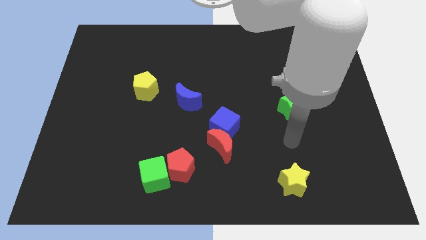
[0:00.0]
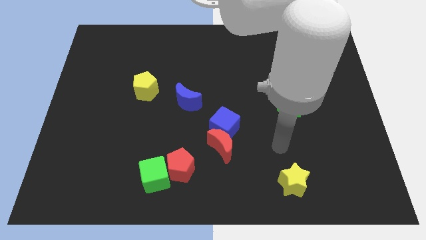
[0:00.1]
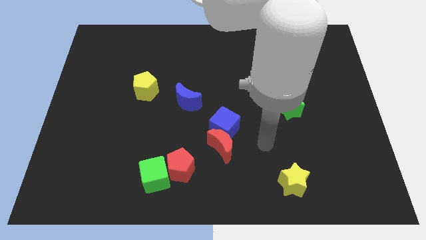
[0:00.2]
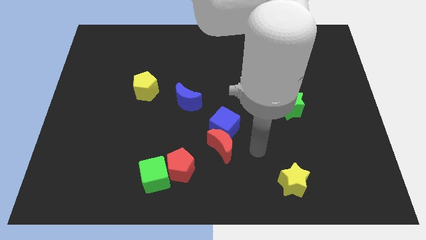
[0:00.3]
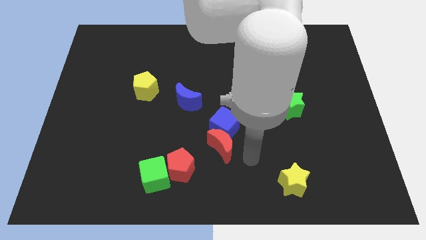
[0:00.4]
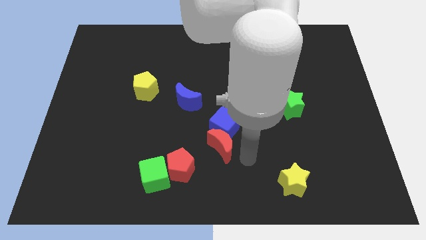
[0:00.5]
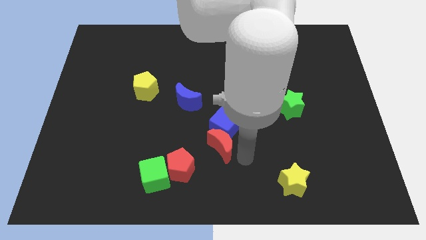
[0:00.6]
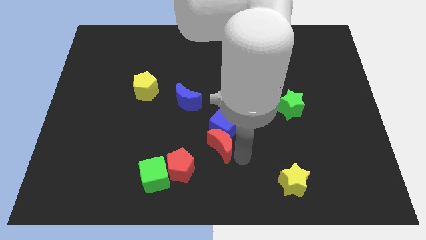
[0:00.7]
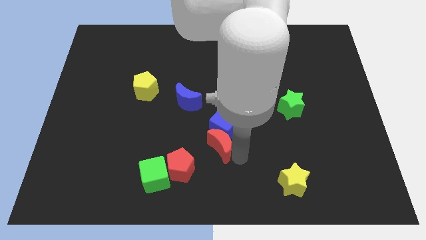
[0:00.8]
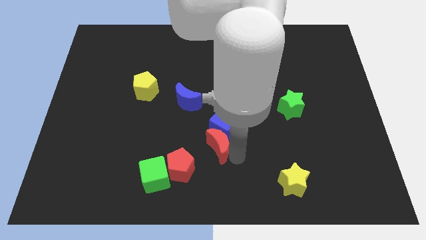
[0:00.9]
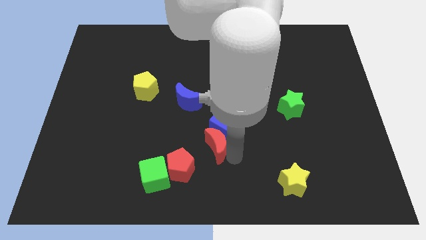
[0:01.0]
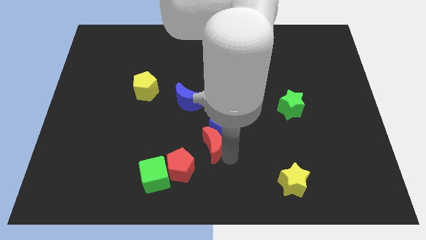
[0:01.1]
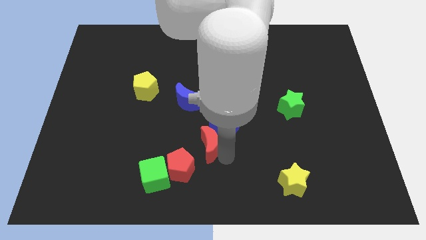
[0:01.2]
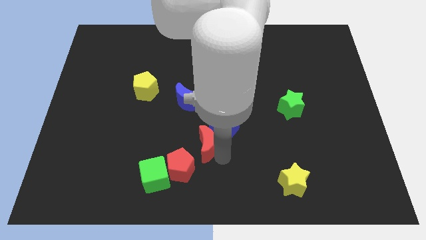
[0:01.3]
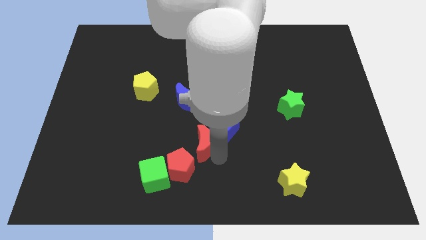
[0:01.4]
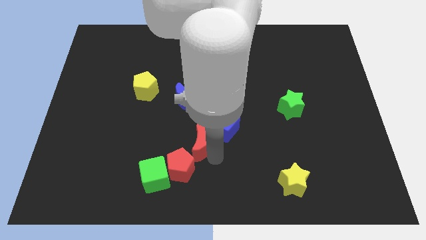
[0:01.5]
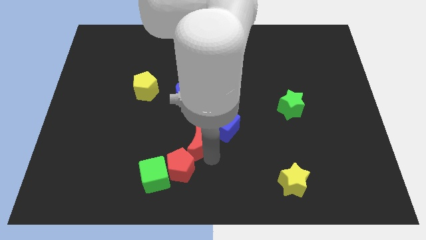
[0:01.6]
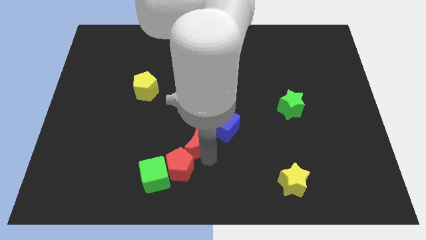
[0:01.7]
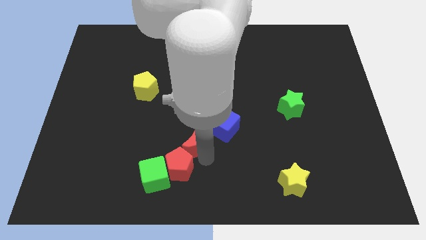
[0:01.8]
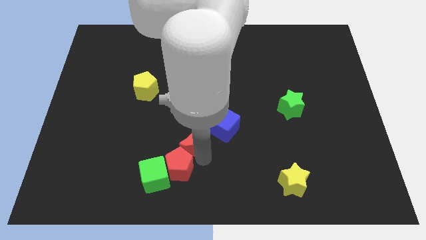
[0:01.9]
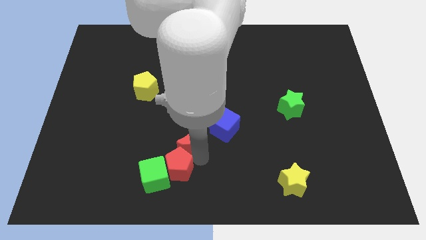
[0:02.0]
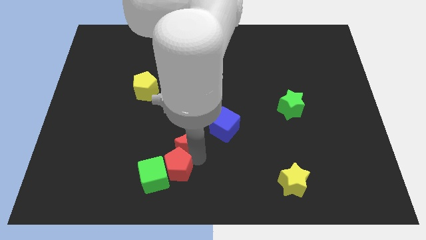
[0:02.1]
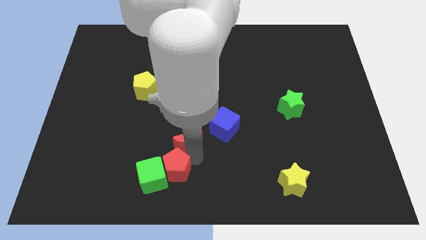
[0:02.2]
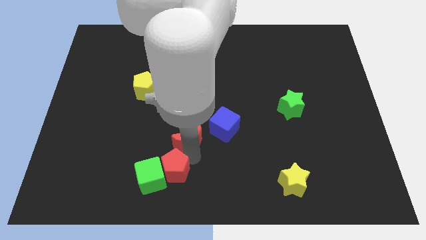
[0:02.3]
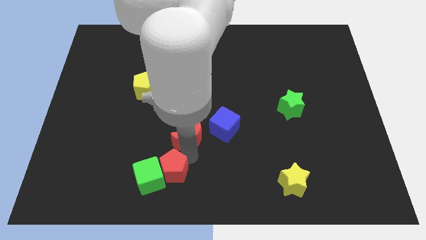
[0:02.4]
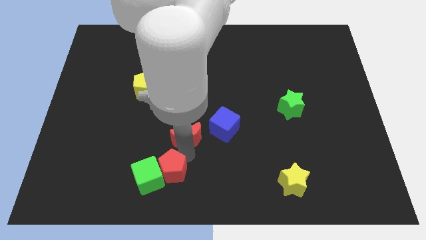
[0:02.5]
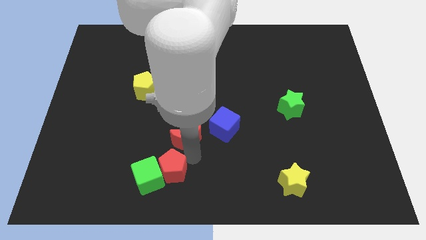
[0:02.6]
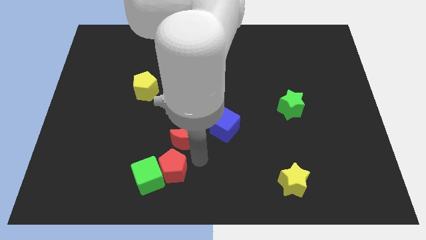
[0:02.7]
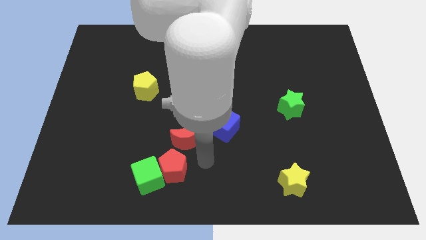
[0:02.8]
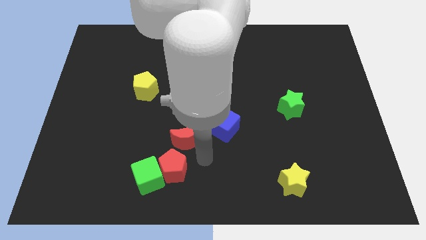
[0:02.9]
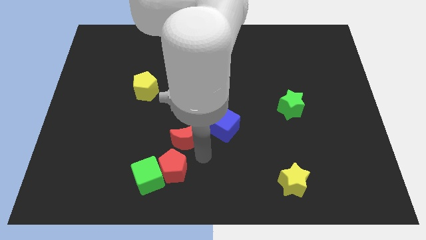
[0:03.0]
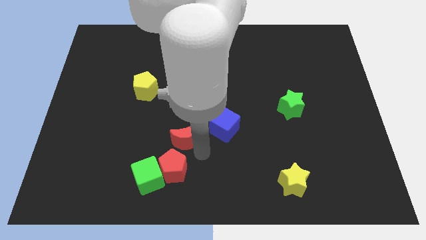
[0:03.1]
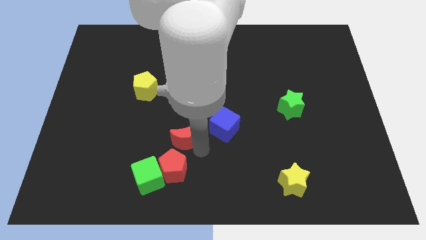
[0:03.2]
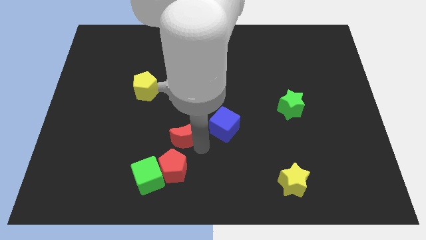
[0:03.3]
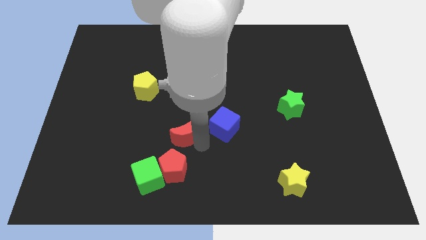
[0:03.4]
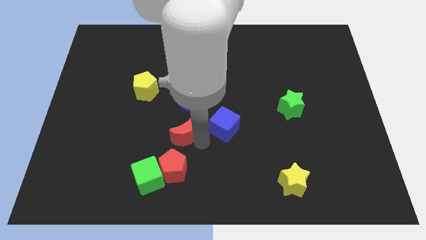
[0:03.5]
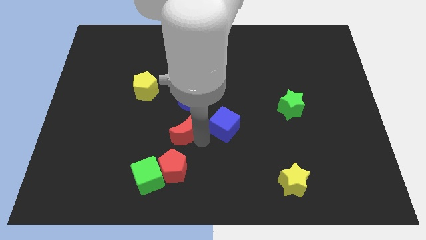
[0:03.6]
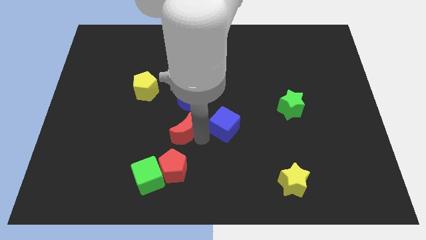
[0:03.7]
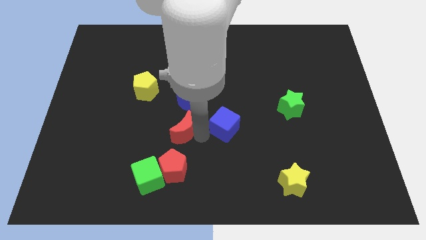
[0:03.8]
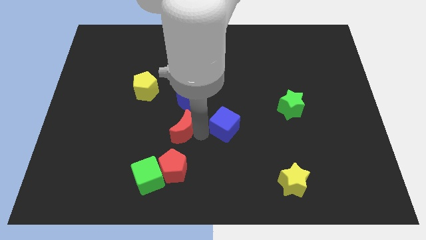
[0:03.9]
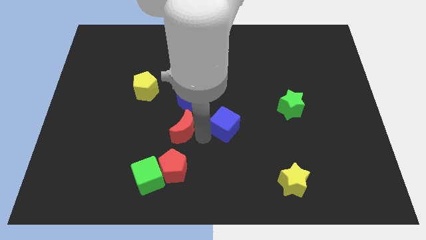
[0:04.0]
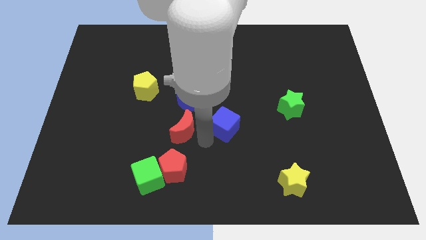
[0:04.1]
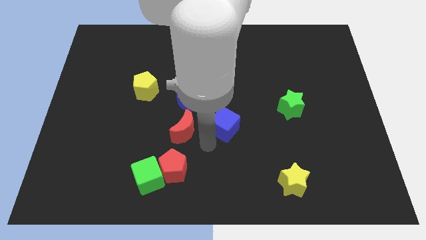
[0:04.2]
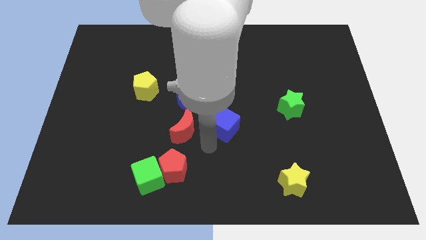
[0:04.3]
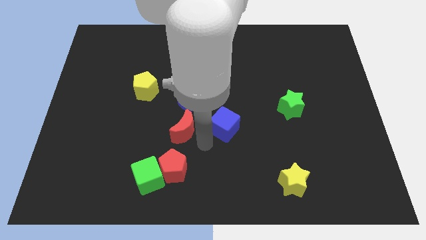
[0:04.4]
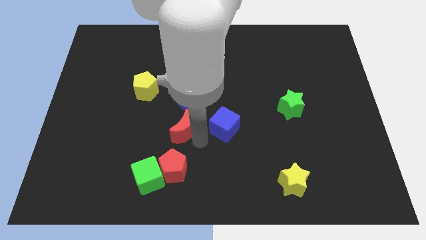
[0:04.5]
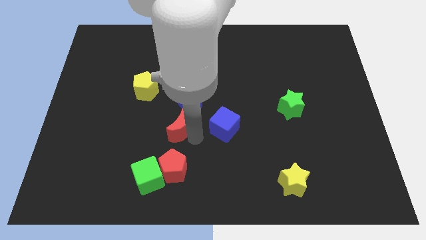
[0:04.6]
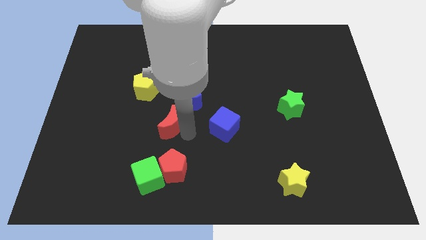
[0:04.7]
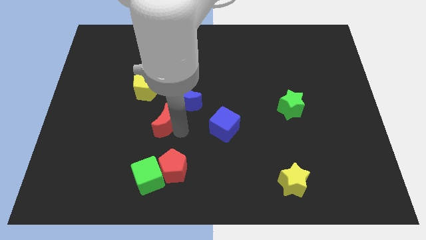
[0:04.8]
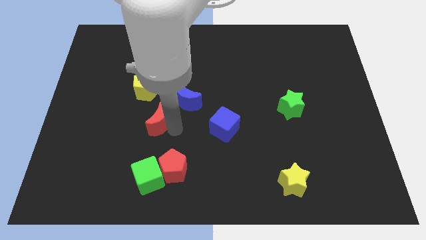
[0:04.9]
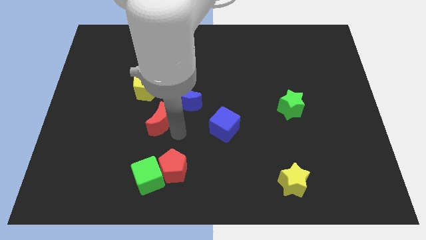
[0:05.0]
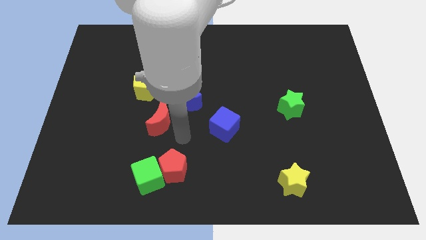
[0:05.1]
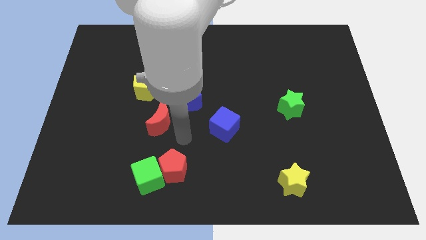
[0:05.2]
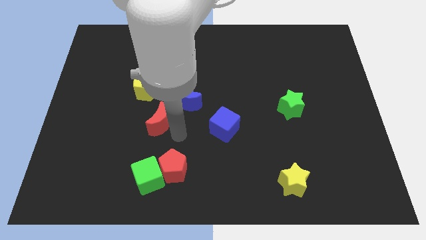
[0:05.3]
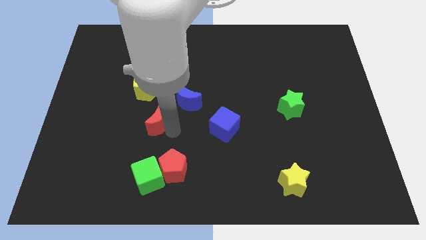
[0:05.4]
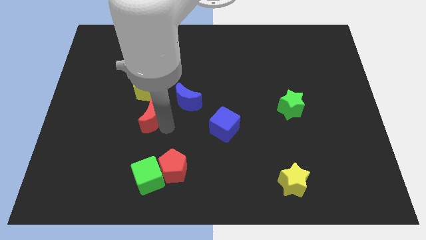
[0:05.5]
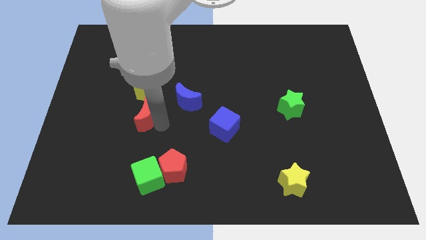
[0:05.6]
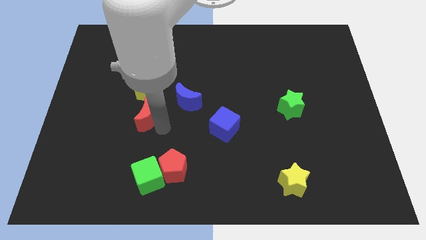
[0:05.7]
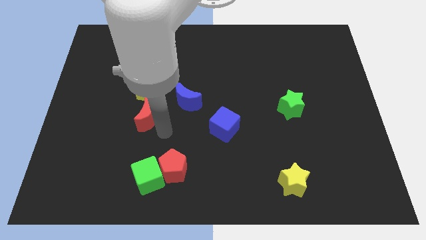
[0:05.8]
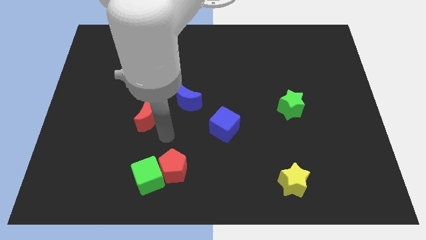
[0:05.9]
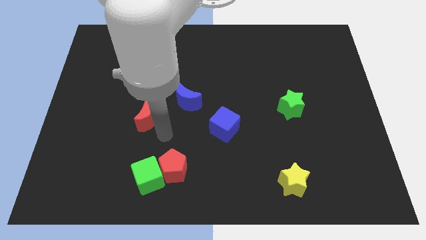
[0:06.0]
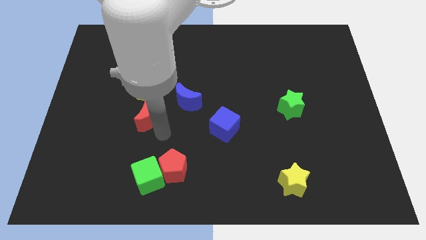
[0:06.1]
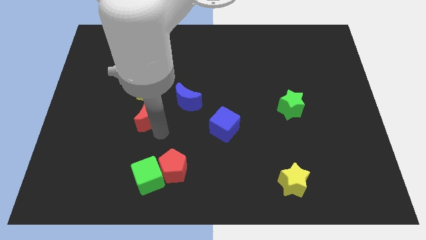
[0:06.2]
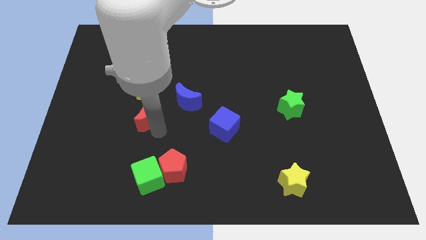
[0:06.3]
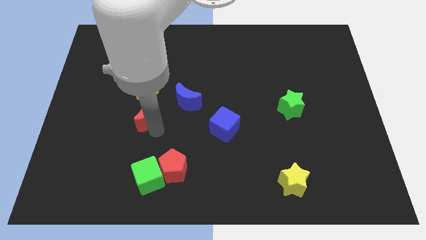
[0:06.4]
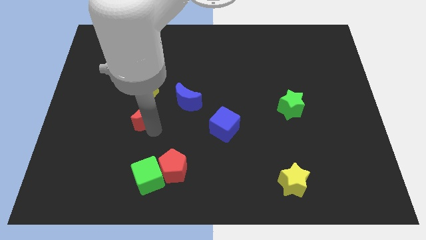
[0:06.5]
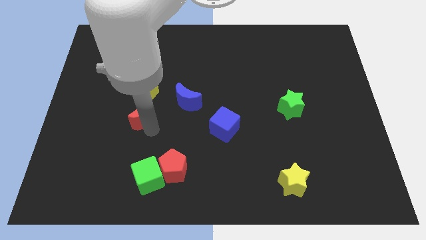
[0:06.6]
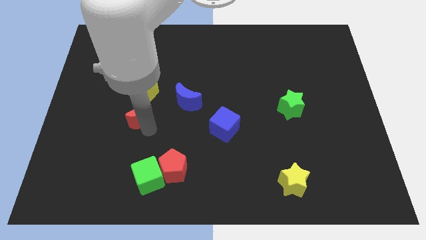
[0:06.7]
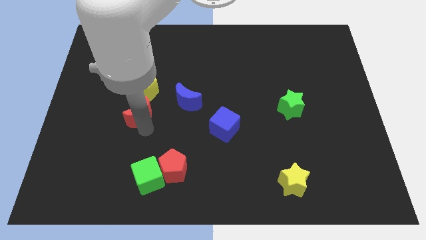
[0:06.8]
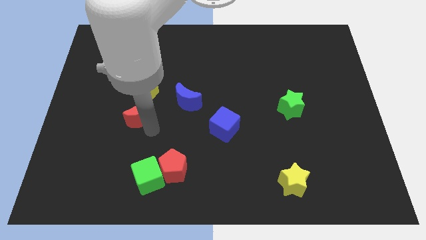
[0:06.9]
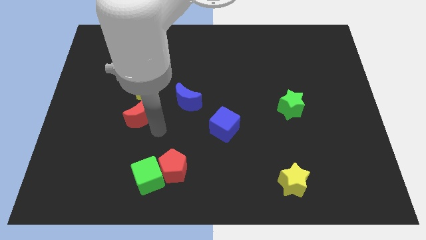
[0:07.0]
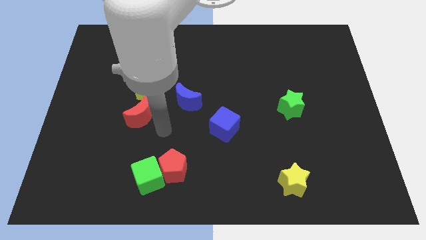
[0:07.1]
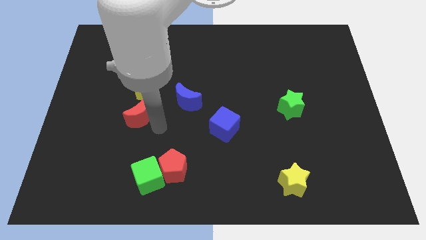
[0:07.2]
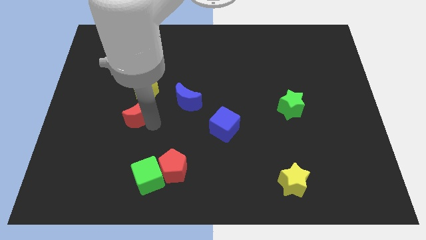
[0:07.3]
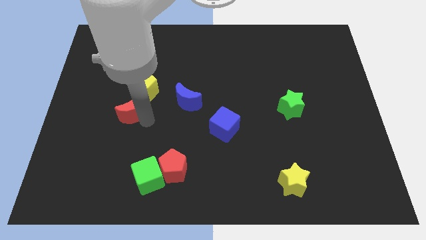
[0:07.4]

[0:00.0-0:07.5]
push the red moon diagonally down and to the left of the yellow pentagon

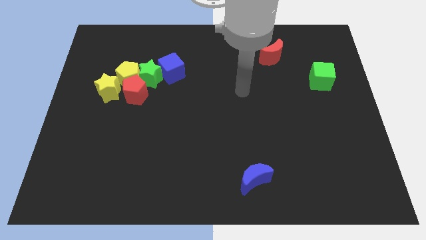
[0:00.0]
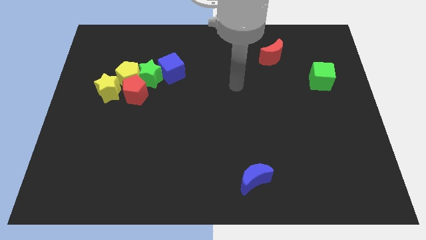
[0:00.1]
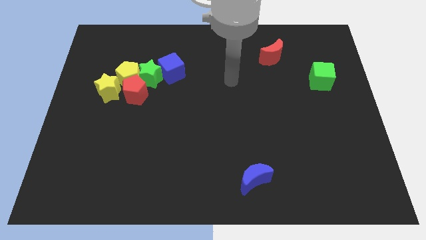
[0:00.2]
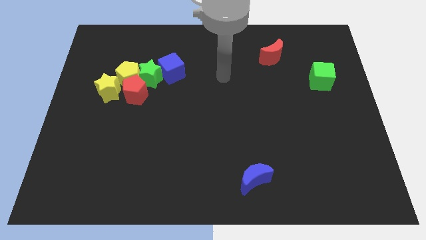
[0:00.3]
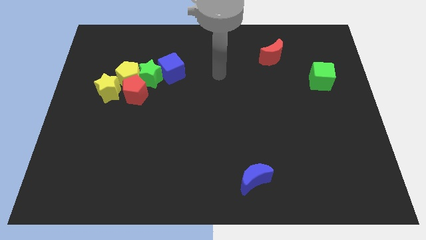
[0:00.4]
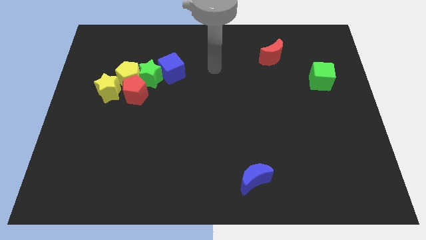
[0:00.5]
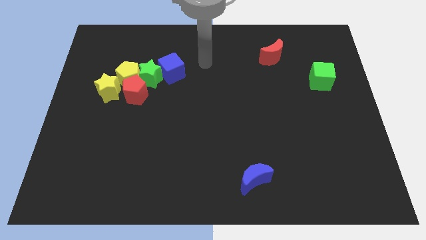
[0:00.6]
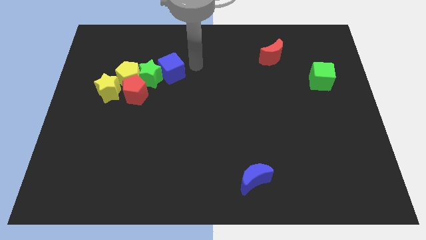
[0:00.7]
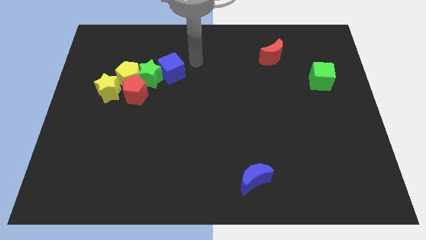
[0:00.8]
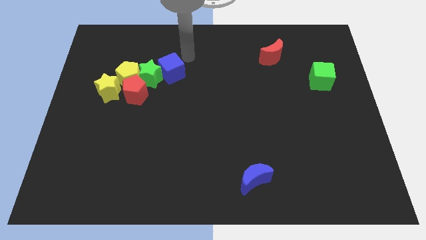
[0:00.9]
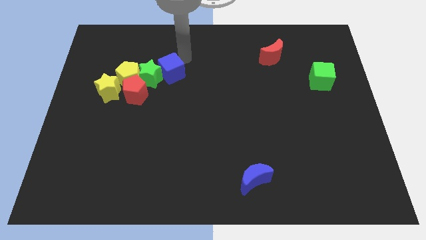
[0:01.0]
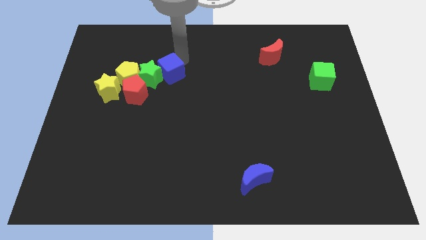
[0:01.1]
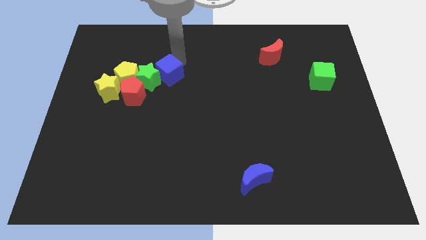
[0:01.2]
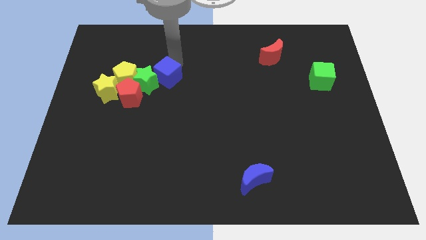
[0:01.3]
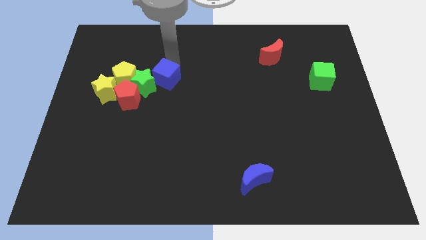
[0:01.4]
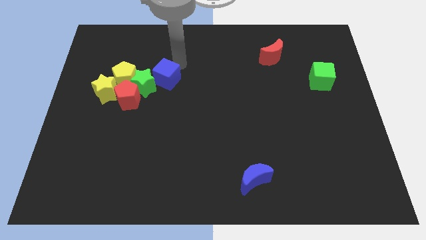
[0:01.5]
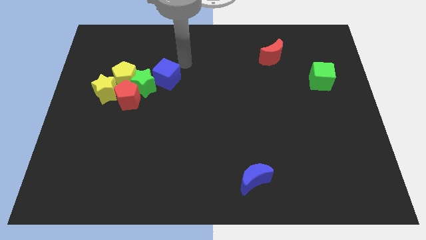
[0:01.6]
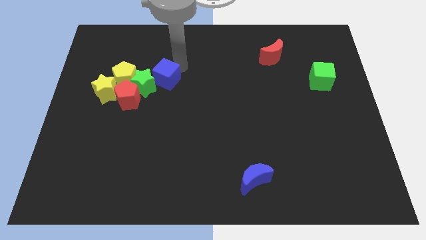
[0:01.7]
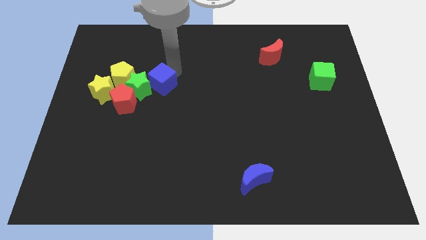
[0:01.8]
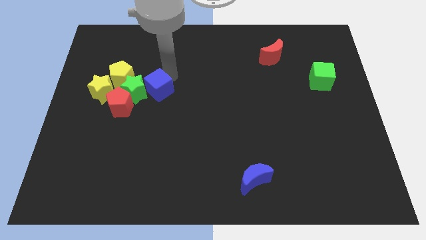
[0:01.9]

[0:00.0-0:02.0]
slide the blue cube to the bottom right of the yellow pentagon
